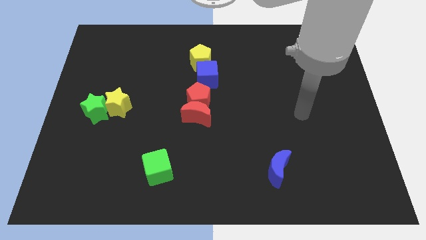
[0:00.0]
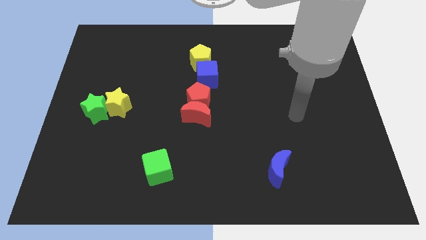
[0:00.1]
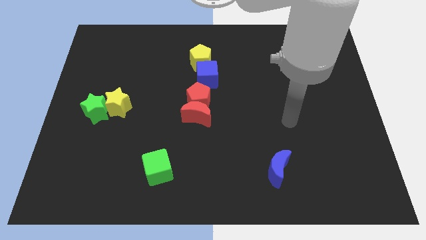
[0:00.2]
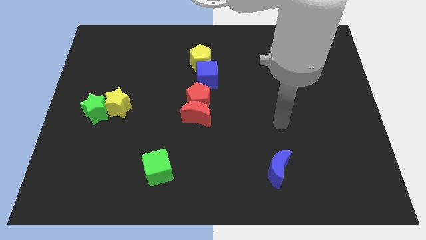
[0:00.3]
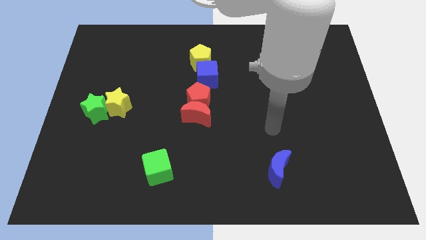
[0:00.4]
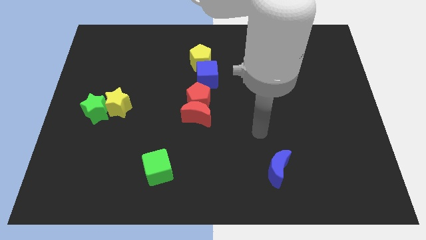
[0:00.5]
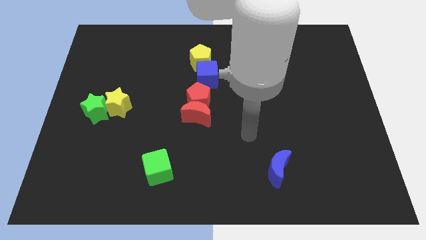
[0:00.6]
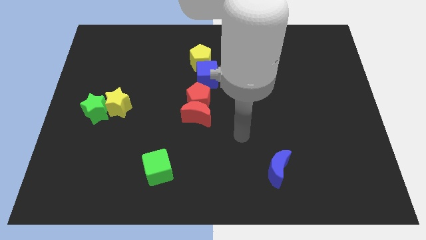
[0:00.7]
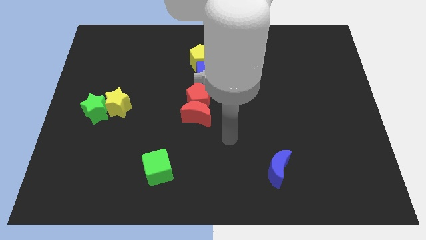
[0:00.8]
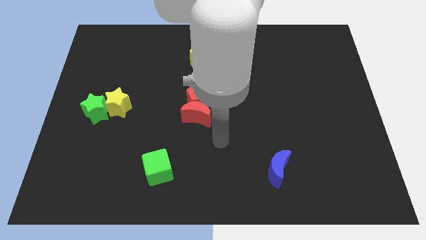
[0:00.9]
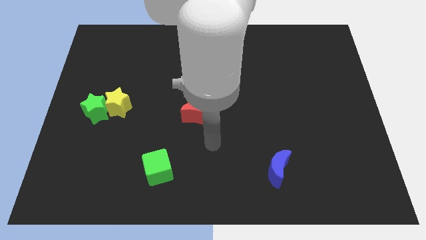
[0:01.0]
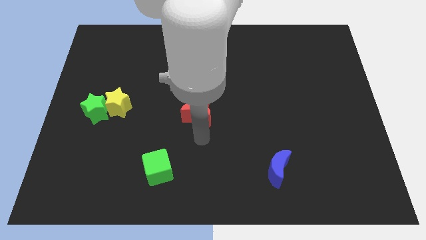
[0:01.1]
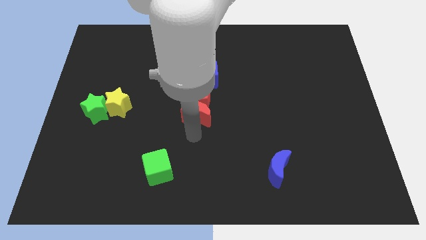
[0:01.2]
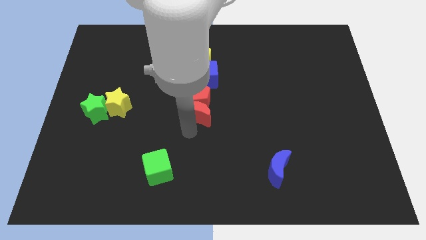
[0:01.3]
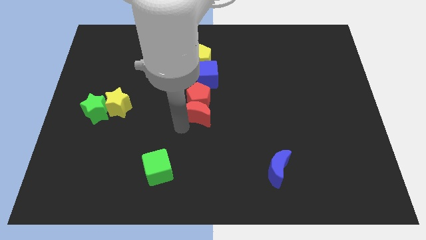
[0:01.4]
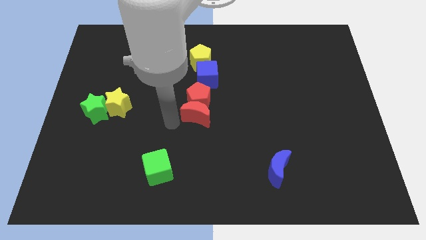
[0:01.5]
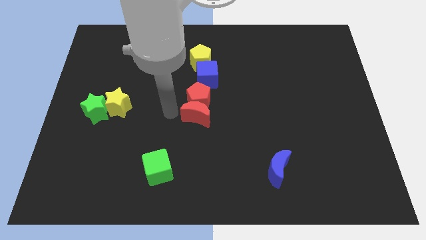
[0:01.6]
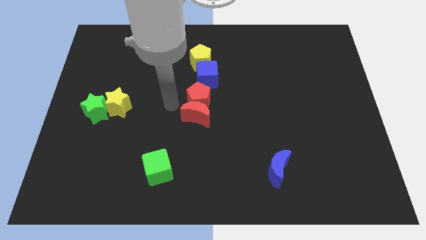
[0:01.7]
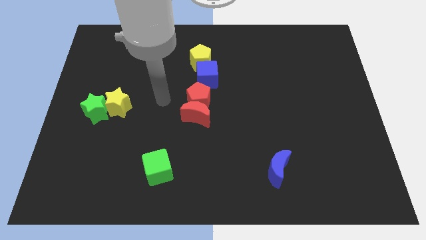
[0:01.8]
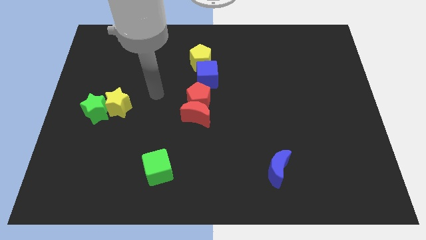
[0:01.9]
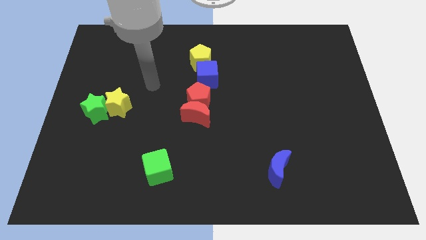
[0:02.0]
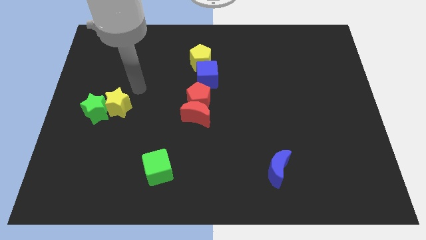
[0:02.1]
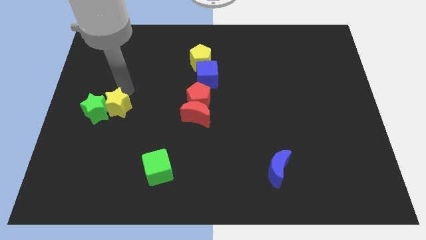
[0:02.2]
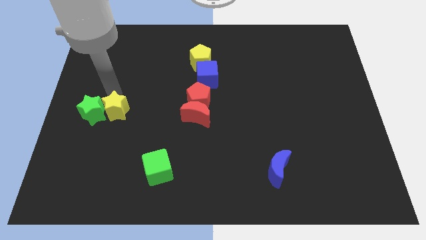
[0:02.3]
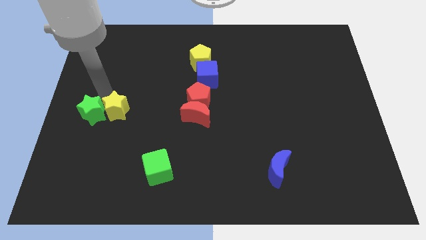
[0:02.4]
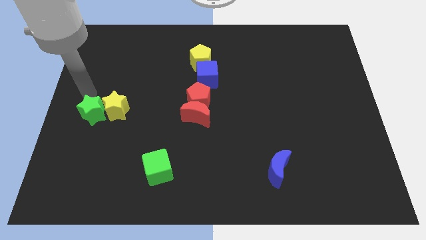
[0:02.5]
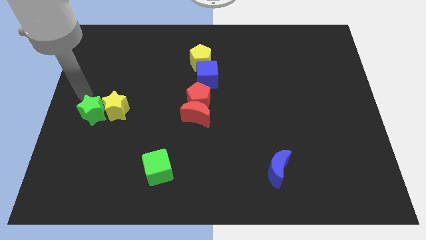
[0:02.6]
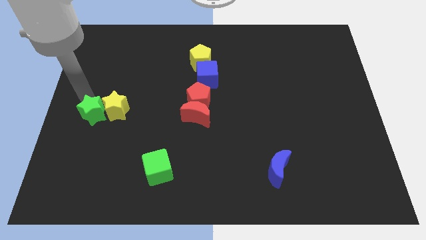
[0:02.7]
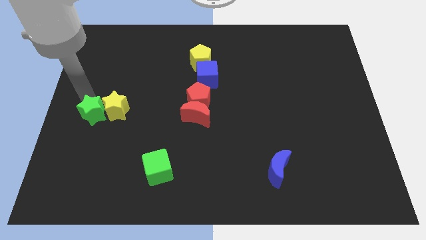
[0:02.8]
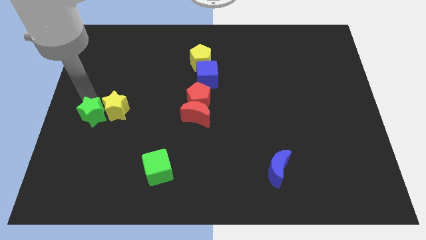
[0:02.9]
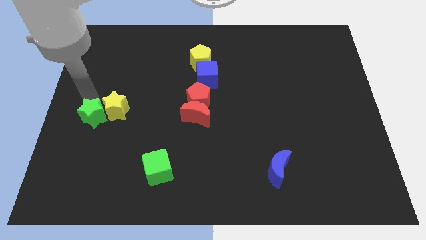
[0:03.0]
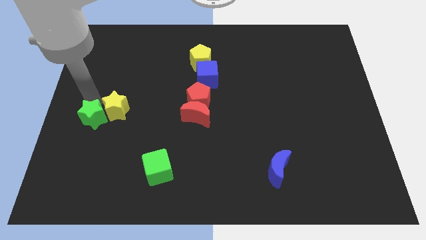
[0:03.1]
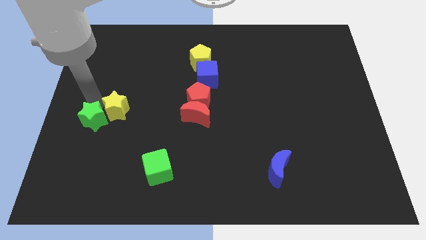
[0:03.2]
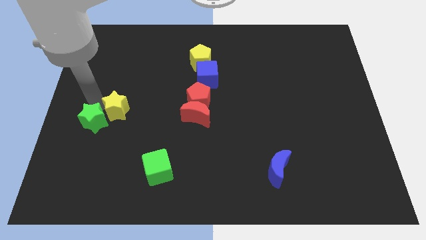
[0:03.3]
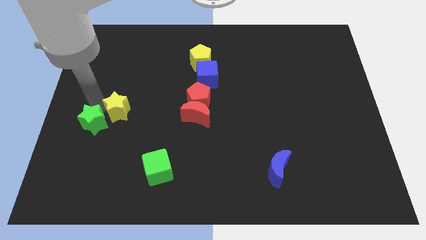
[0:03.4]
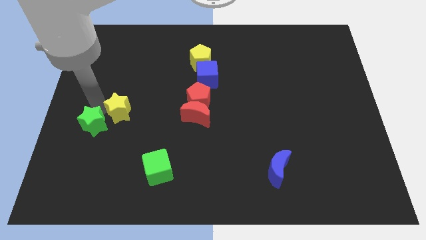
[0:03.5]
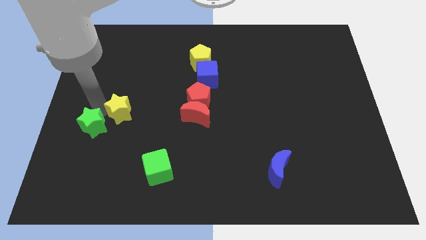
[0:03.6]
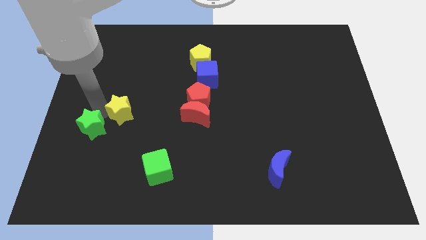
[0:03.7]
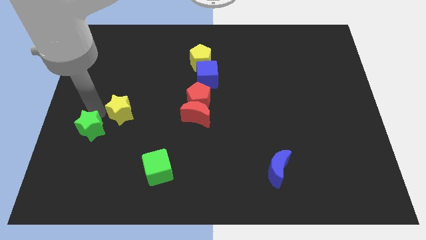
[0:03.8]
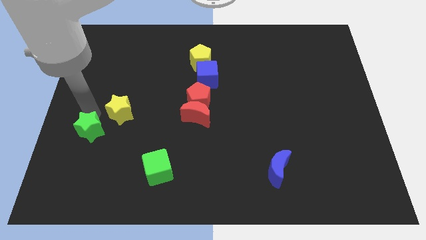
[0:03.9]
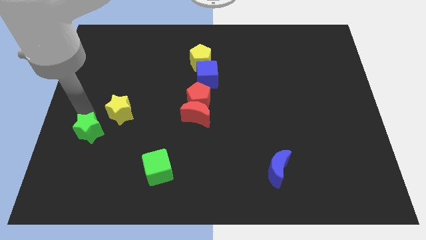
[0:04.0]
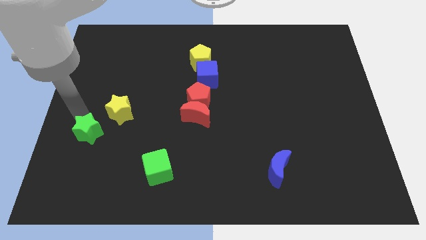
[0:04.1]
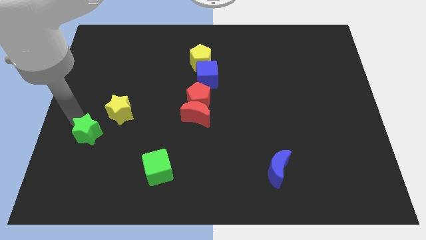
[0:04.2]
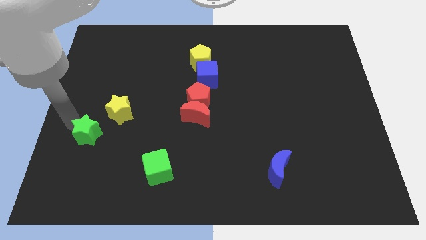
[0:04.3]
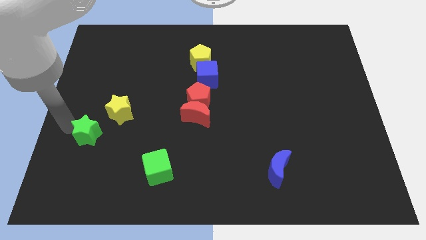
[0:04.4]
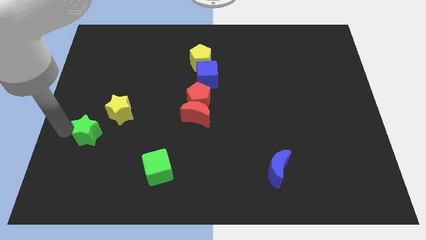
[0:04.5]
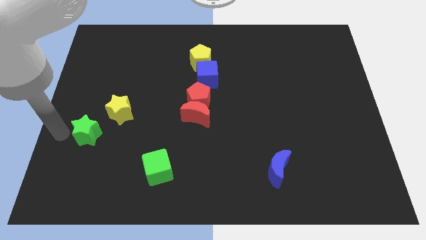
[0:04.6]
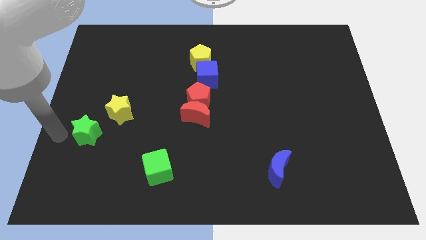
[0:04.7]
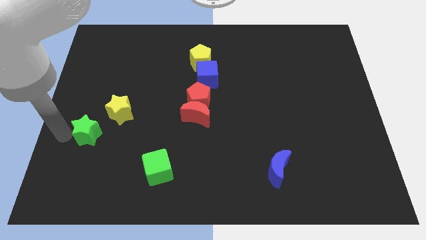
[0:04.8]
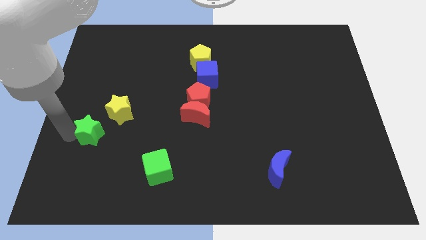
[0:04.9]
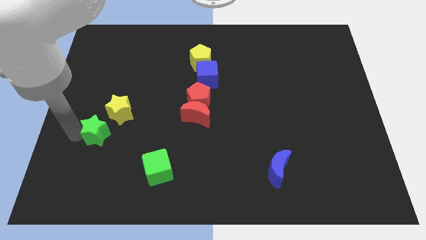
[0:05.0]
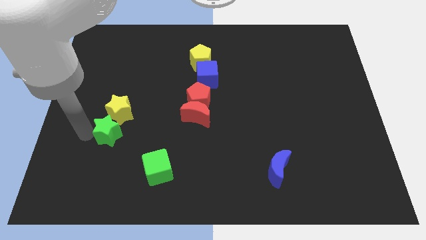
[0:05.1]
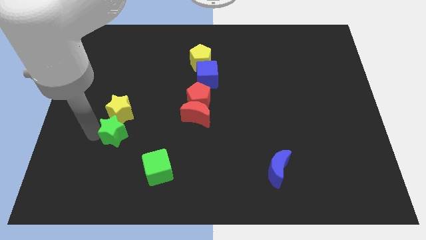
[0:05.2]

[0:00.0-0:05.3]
push the green star diagonally down and to the right of the yellow star

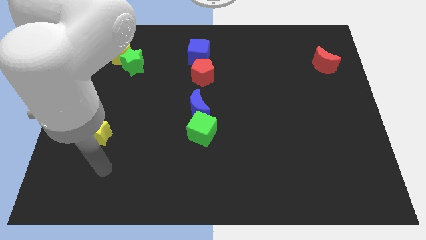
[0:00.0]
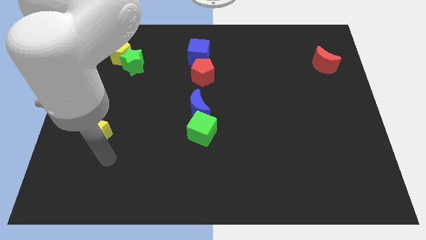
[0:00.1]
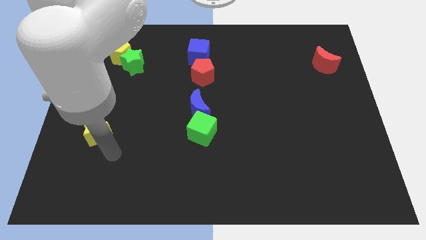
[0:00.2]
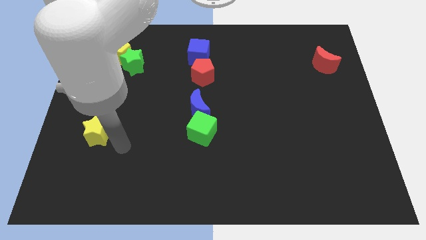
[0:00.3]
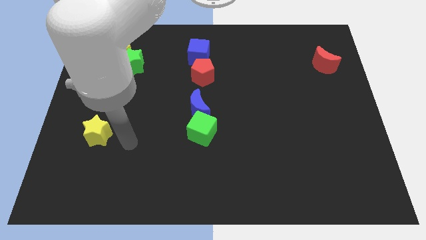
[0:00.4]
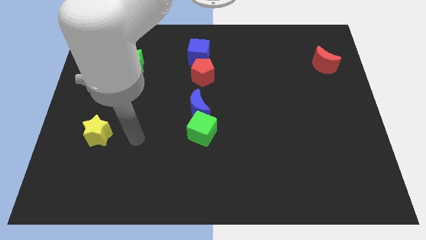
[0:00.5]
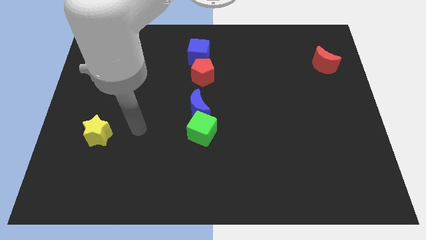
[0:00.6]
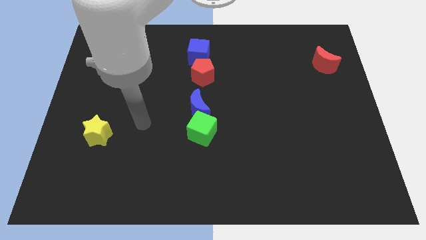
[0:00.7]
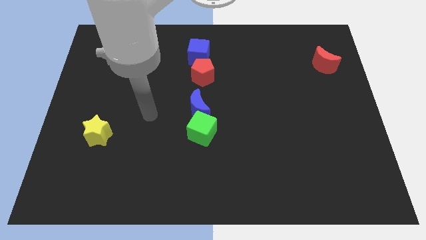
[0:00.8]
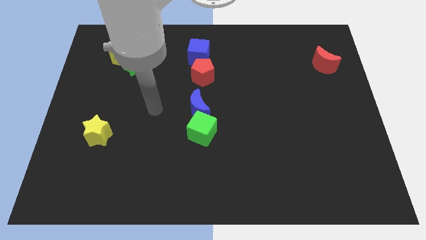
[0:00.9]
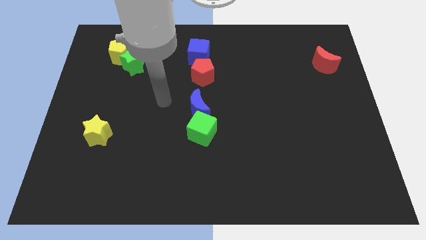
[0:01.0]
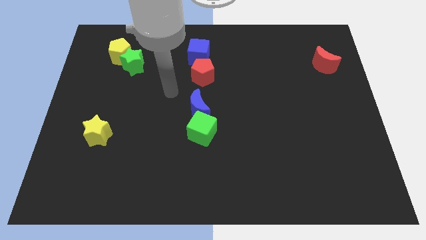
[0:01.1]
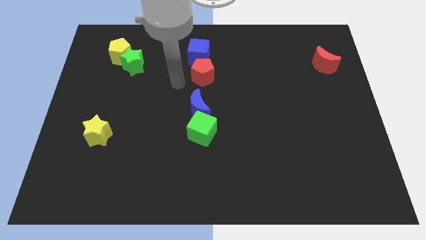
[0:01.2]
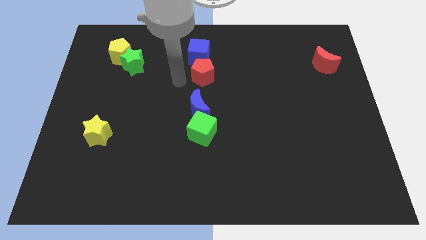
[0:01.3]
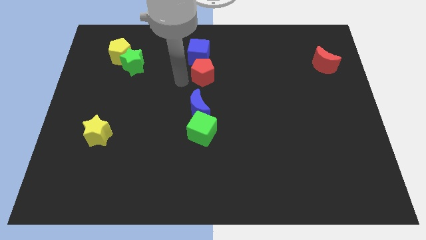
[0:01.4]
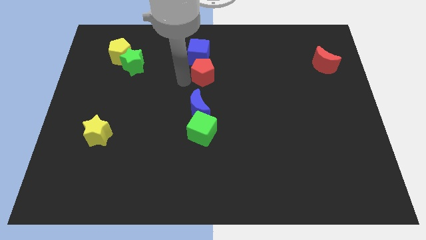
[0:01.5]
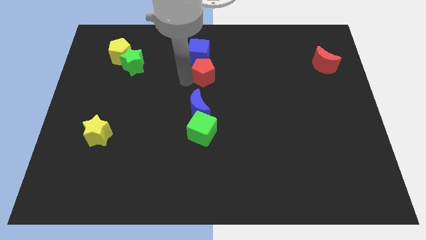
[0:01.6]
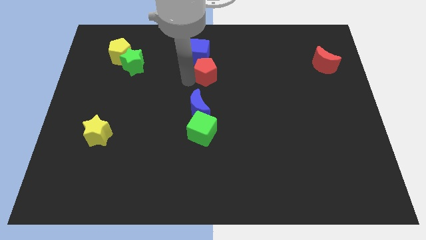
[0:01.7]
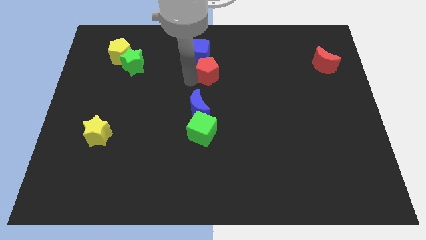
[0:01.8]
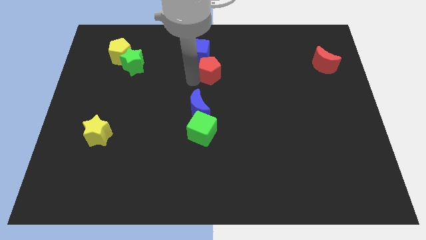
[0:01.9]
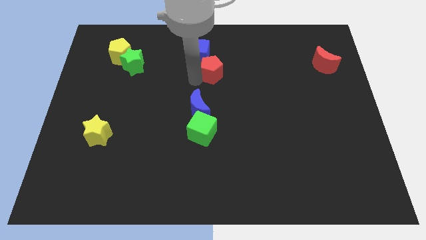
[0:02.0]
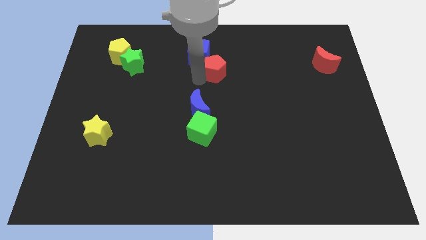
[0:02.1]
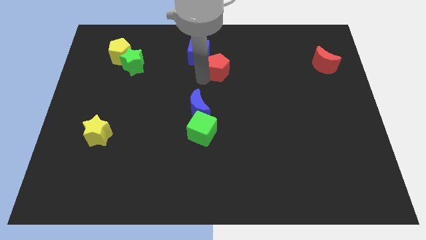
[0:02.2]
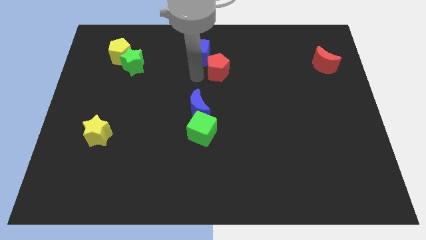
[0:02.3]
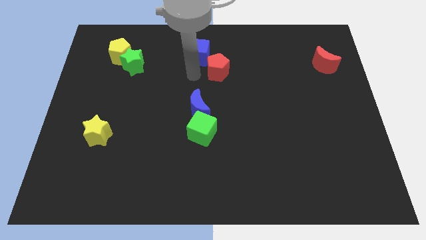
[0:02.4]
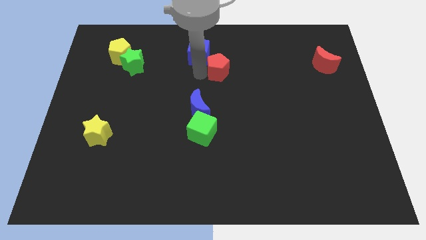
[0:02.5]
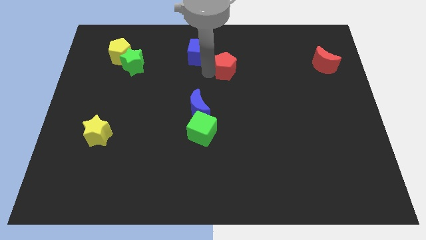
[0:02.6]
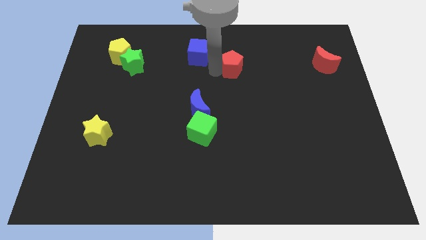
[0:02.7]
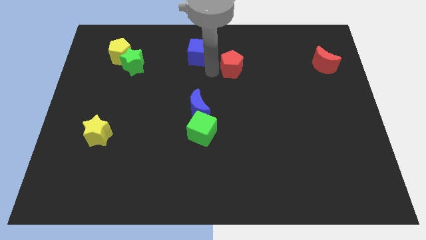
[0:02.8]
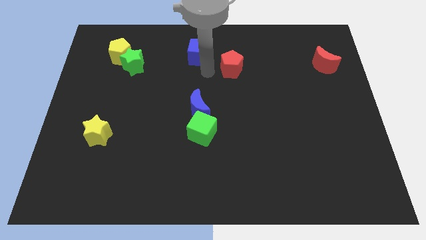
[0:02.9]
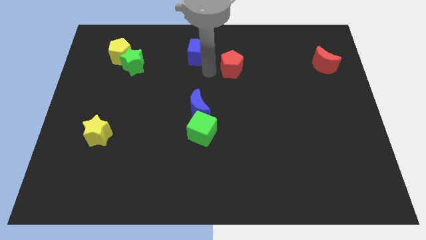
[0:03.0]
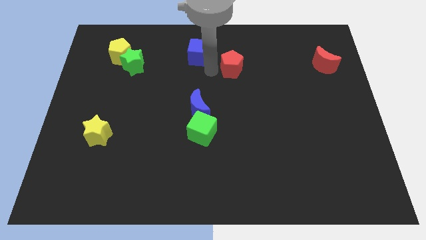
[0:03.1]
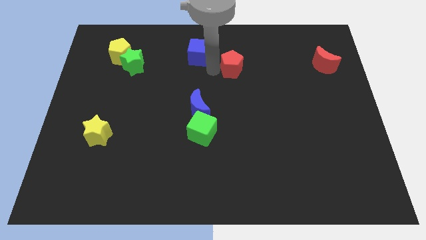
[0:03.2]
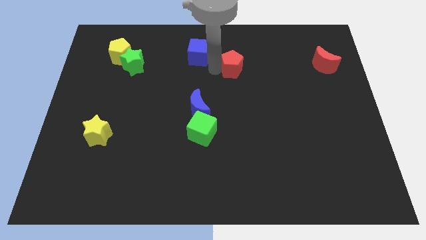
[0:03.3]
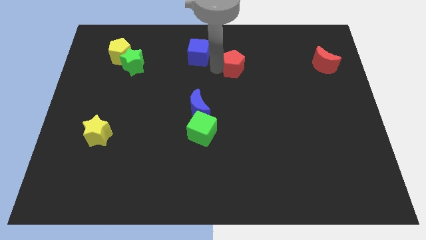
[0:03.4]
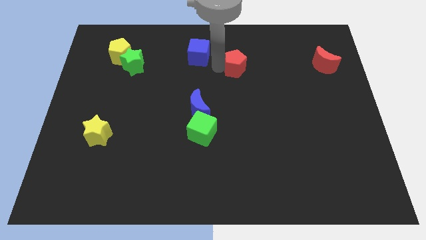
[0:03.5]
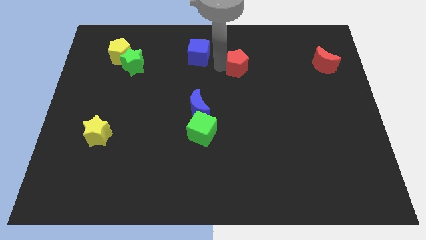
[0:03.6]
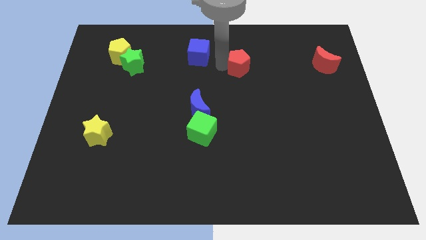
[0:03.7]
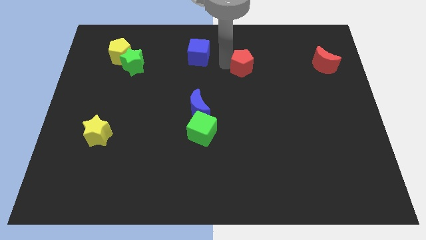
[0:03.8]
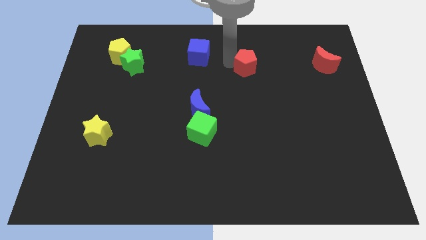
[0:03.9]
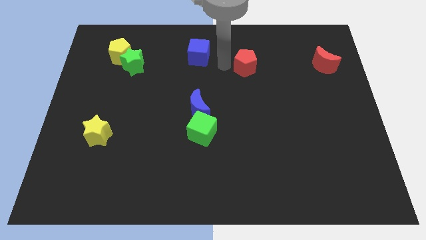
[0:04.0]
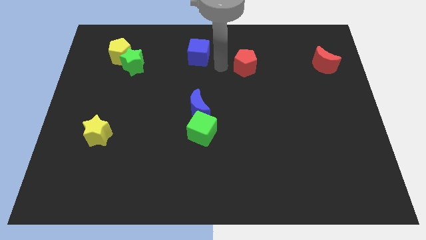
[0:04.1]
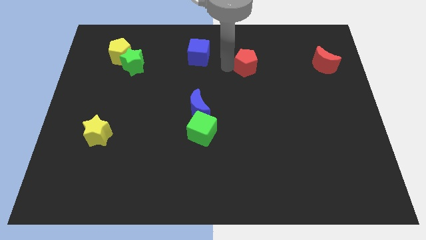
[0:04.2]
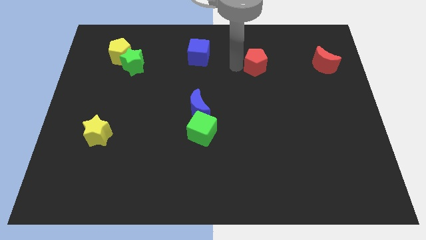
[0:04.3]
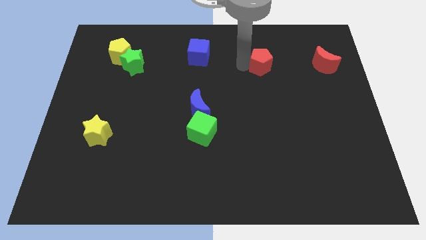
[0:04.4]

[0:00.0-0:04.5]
put the red pentagon just left of the red moon
